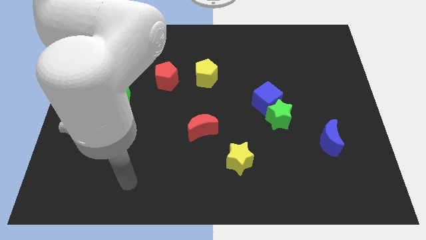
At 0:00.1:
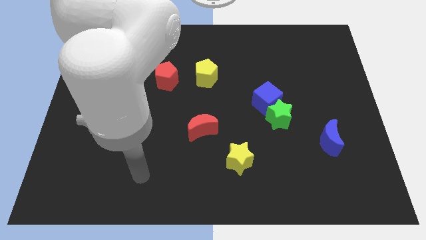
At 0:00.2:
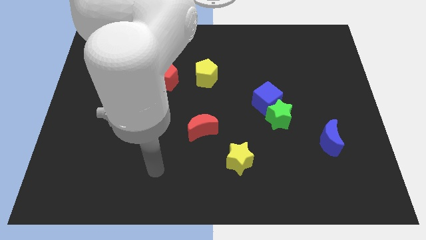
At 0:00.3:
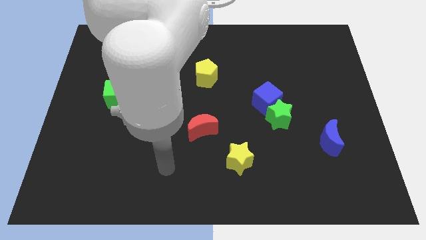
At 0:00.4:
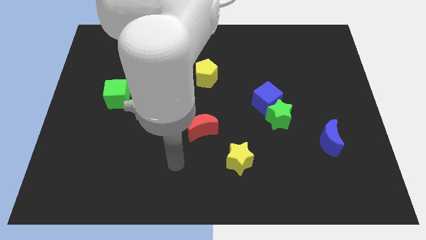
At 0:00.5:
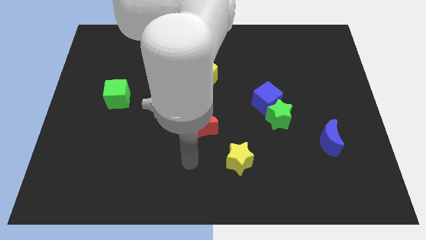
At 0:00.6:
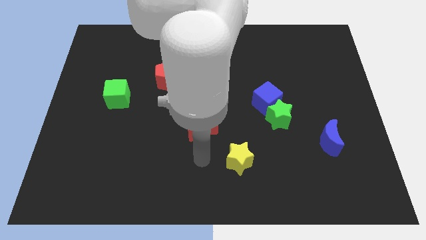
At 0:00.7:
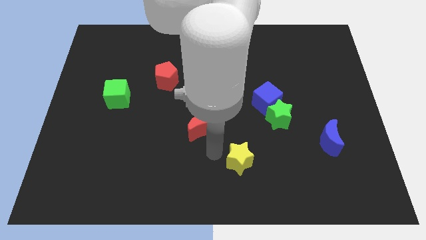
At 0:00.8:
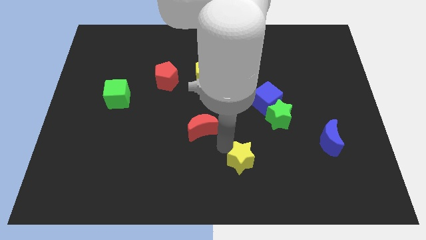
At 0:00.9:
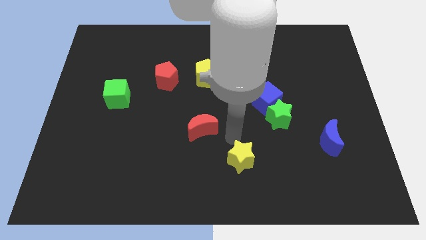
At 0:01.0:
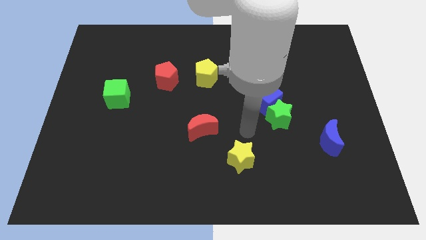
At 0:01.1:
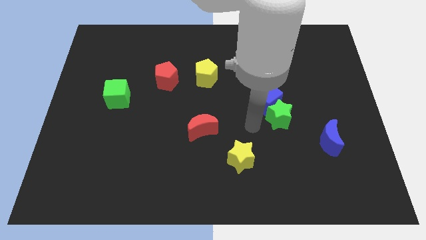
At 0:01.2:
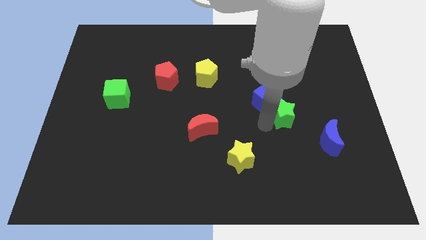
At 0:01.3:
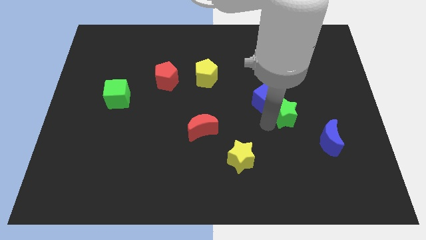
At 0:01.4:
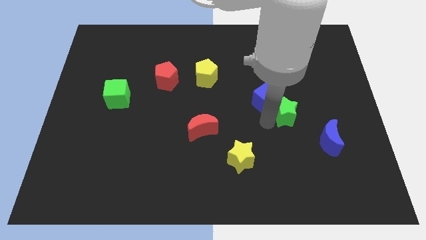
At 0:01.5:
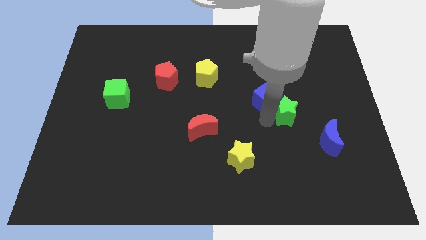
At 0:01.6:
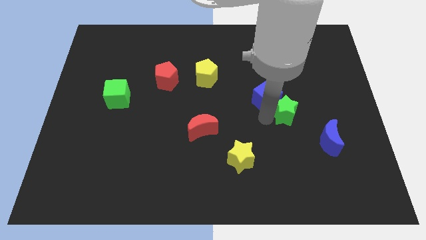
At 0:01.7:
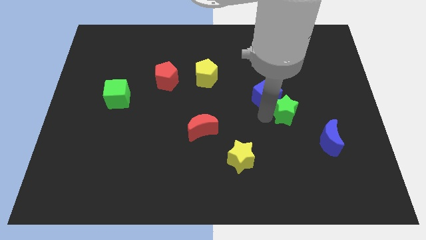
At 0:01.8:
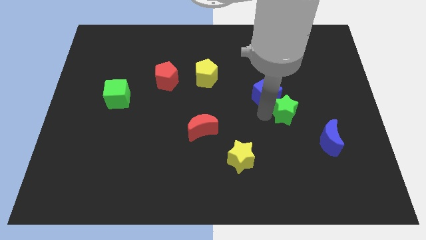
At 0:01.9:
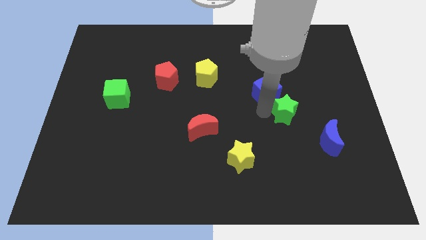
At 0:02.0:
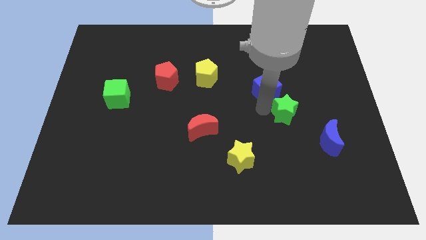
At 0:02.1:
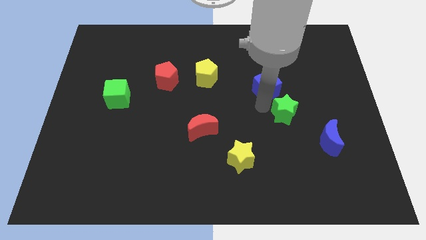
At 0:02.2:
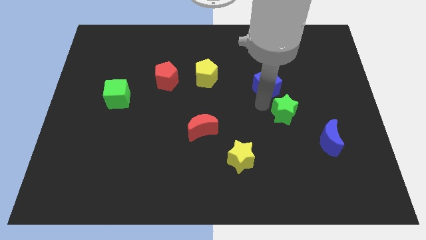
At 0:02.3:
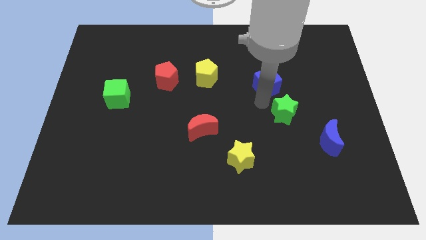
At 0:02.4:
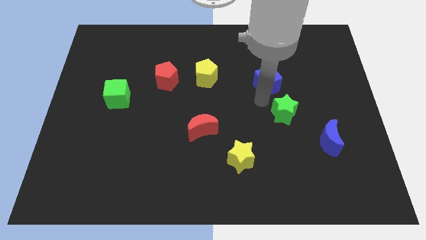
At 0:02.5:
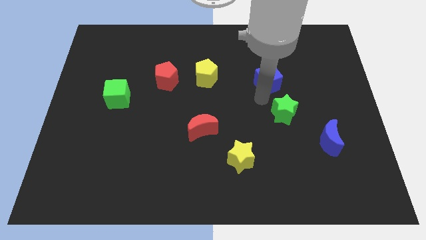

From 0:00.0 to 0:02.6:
pull the blue cube apart from the green star

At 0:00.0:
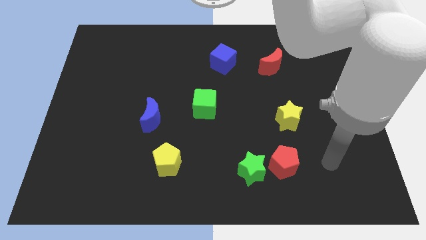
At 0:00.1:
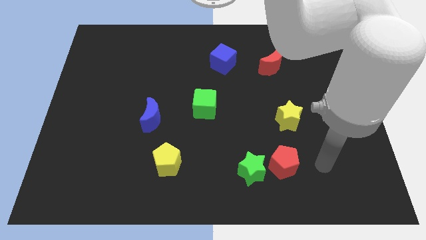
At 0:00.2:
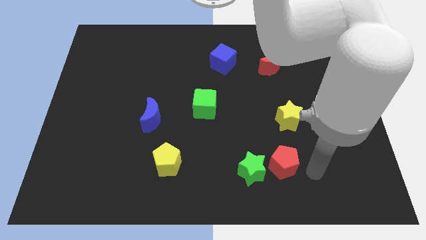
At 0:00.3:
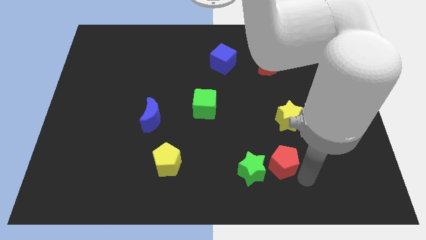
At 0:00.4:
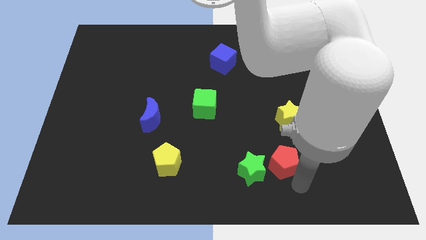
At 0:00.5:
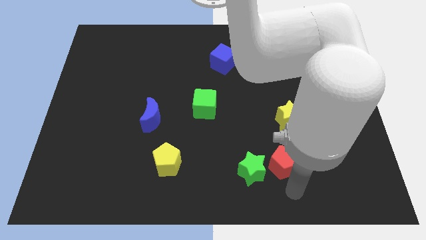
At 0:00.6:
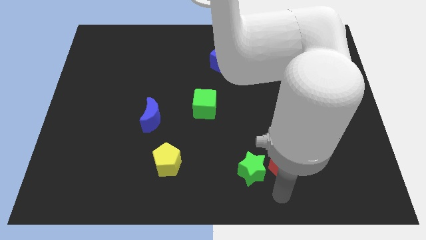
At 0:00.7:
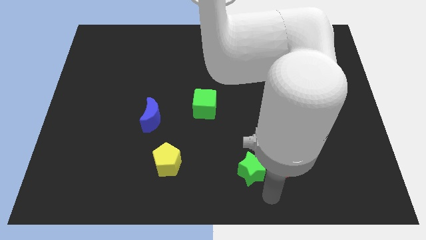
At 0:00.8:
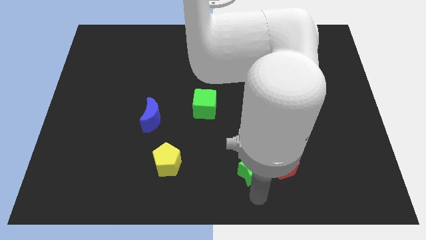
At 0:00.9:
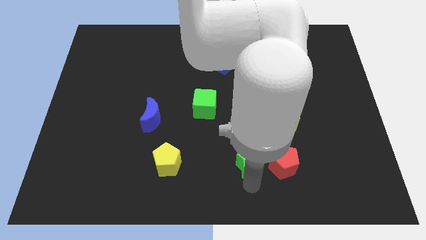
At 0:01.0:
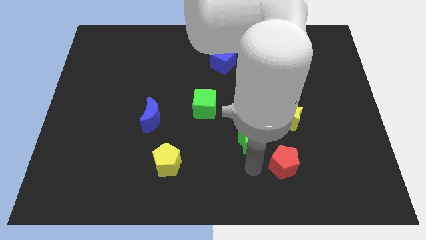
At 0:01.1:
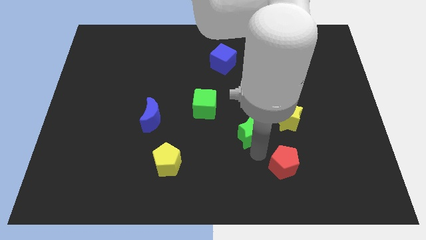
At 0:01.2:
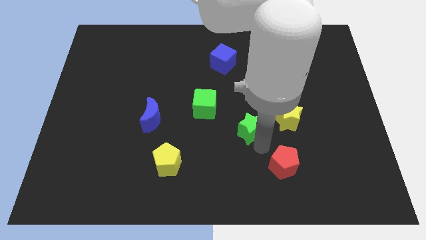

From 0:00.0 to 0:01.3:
move the red pentagon away from the green star

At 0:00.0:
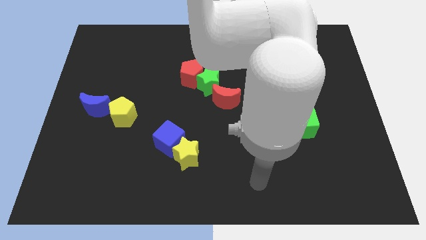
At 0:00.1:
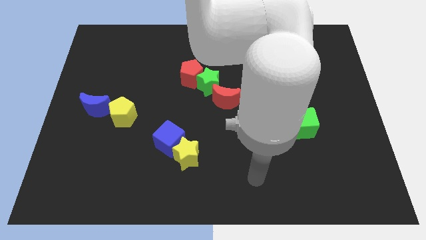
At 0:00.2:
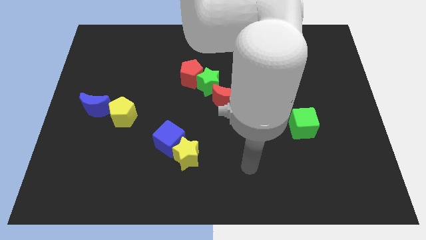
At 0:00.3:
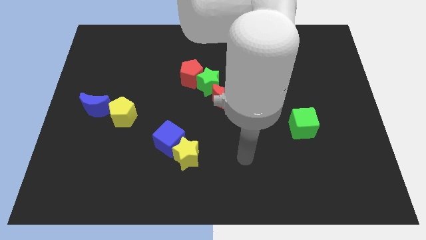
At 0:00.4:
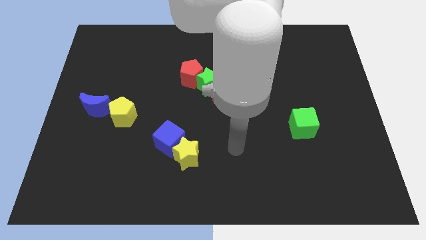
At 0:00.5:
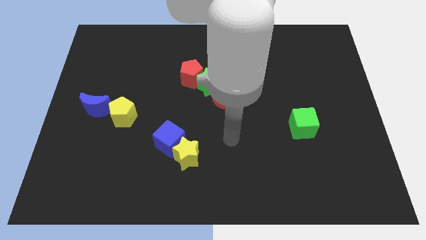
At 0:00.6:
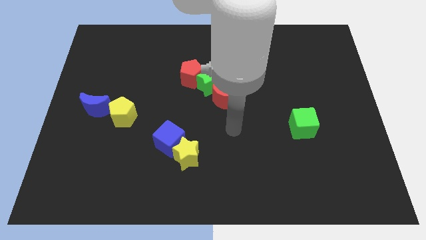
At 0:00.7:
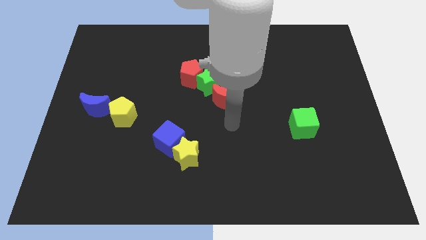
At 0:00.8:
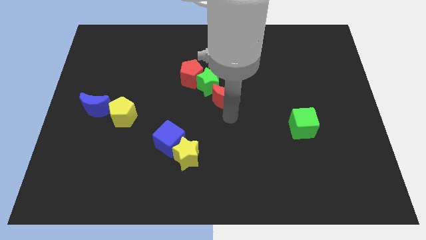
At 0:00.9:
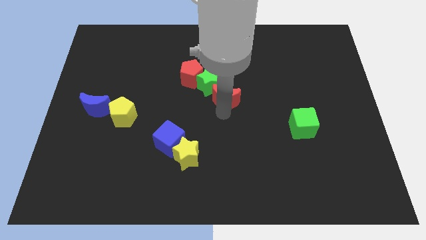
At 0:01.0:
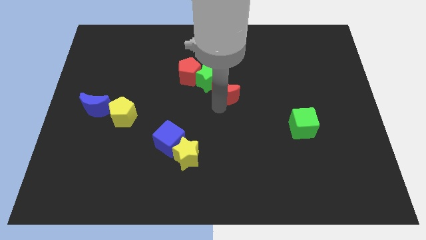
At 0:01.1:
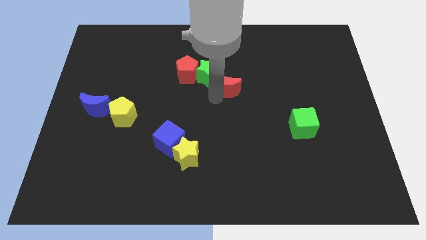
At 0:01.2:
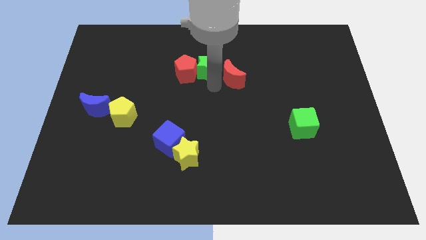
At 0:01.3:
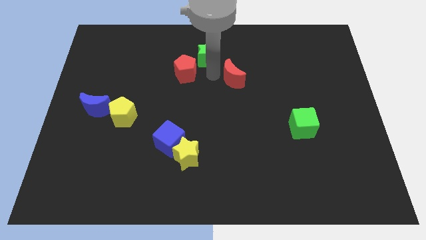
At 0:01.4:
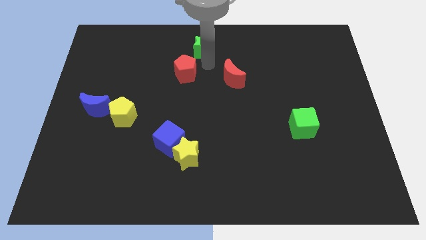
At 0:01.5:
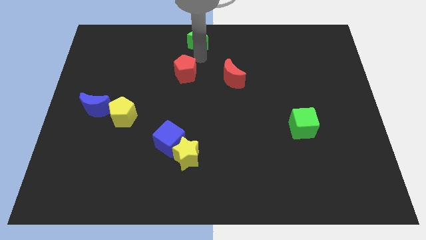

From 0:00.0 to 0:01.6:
pull the red pentagon apart from the green star

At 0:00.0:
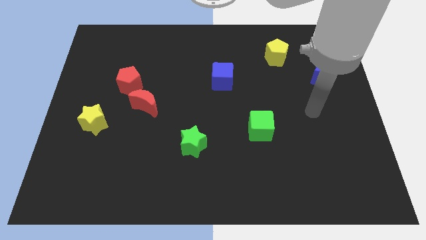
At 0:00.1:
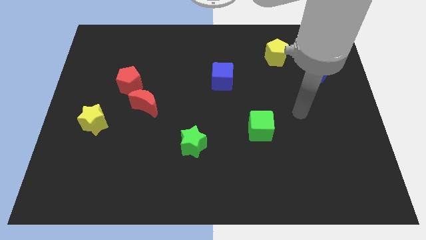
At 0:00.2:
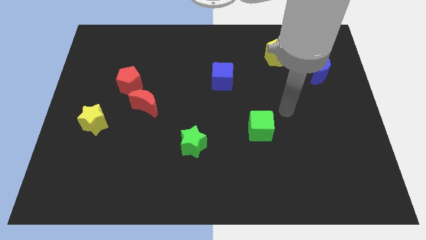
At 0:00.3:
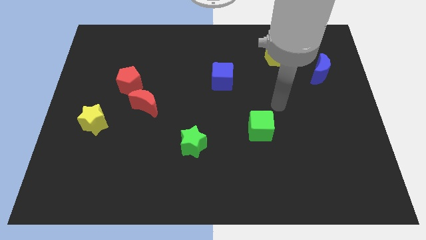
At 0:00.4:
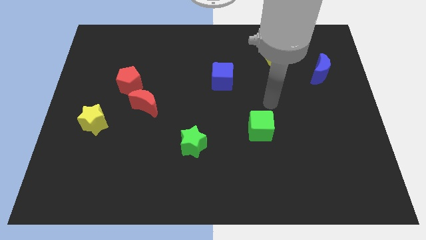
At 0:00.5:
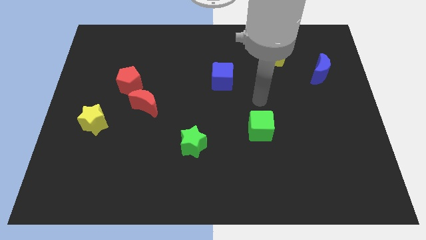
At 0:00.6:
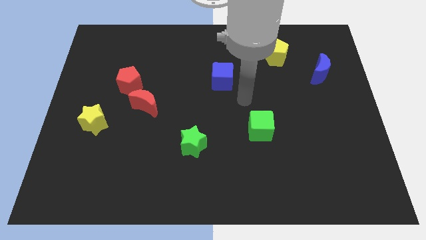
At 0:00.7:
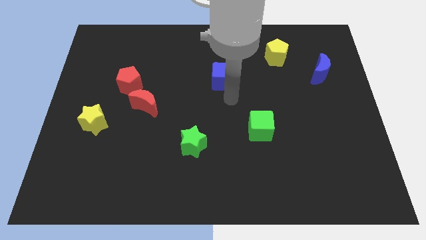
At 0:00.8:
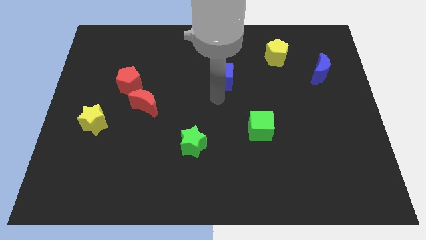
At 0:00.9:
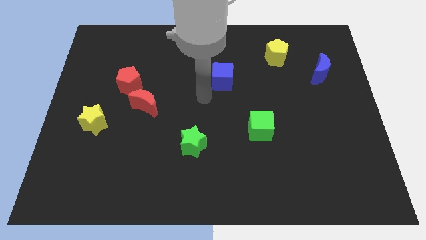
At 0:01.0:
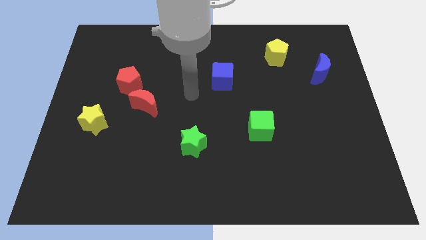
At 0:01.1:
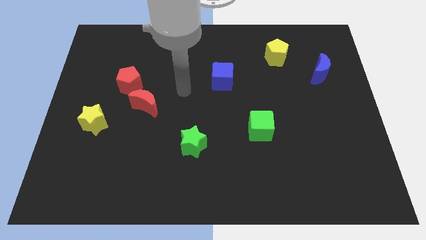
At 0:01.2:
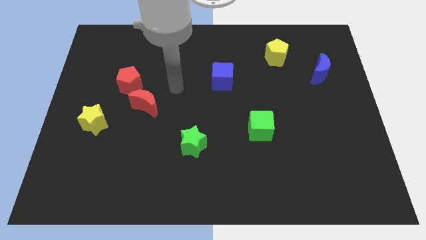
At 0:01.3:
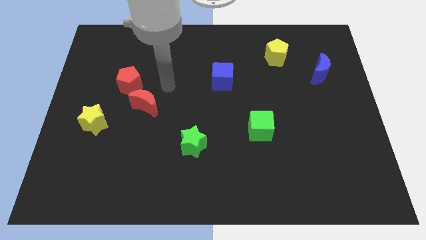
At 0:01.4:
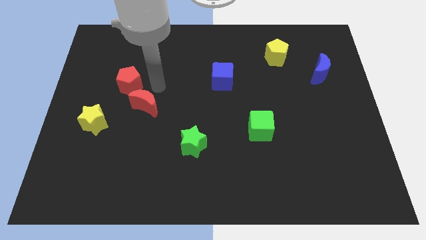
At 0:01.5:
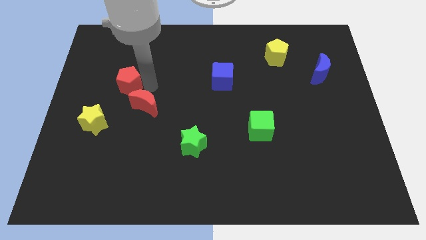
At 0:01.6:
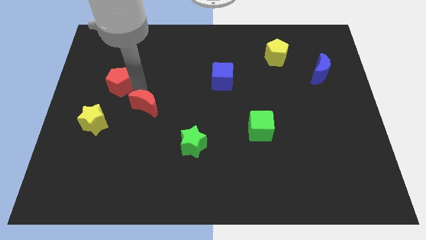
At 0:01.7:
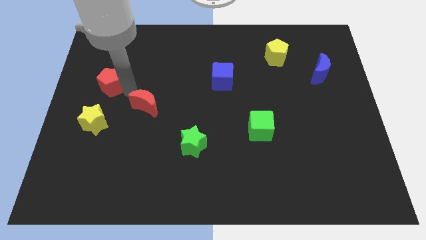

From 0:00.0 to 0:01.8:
pull the red moon apart from the red pentagon

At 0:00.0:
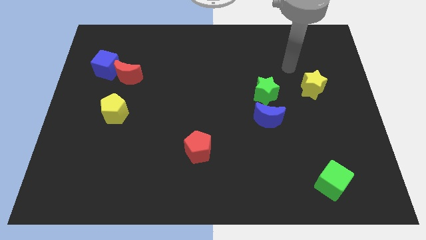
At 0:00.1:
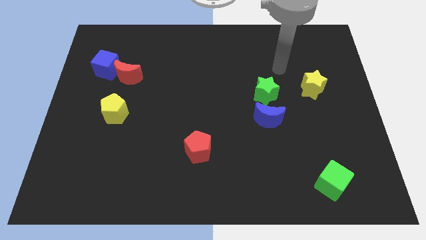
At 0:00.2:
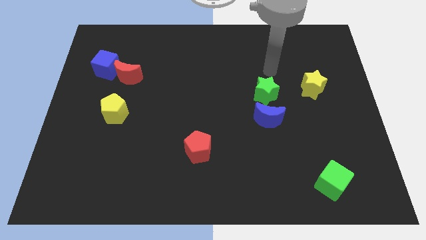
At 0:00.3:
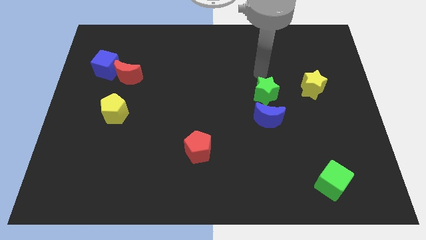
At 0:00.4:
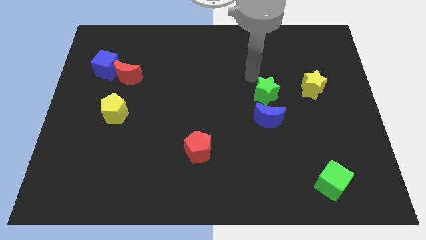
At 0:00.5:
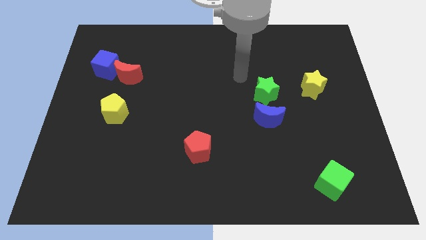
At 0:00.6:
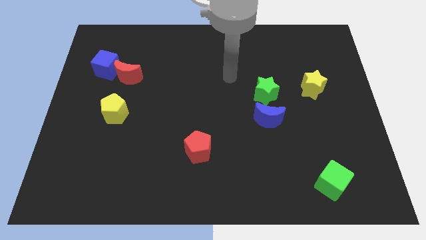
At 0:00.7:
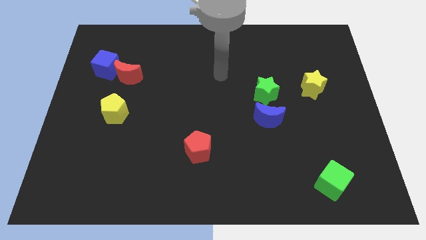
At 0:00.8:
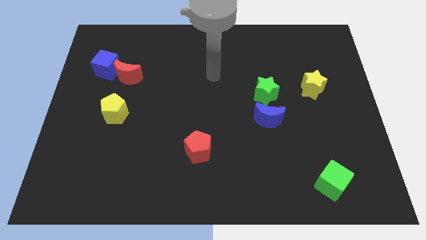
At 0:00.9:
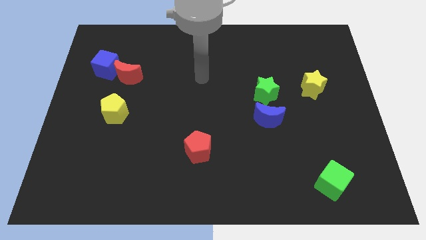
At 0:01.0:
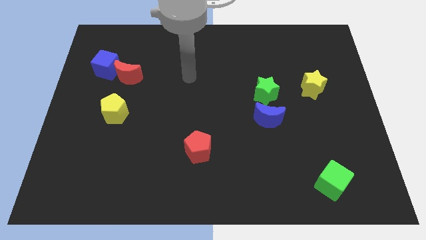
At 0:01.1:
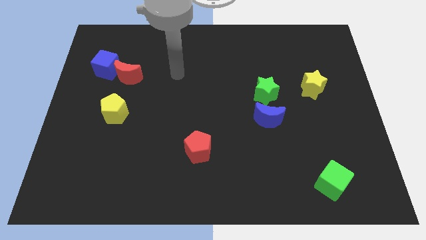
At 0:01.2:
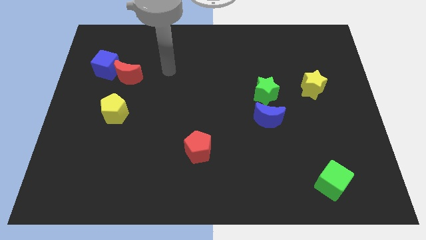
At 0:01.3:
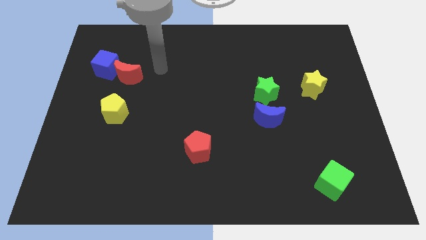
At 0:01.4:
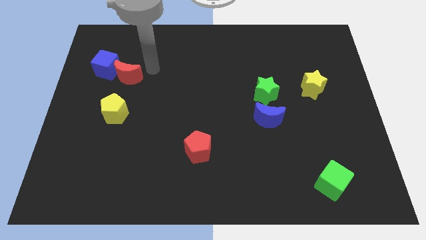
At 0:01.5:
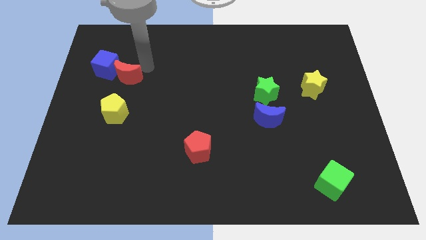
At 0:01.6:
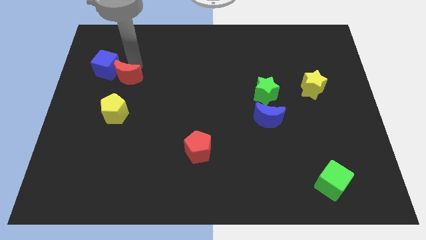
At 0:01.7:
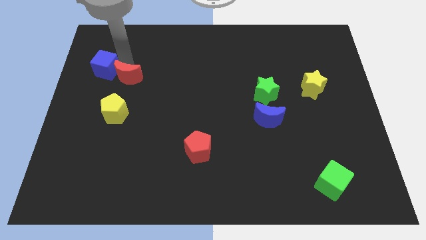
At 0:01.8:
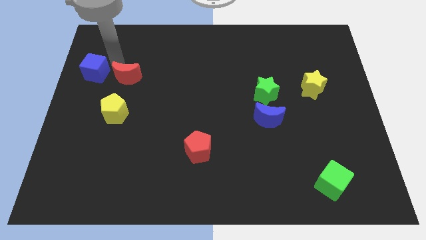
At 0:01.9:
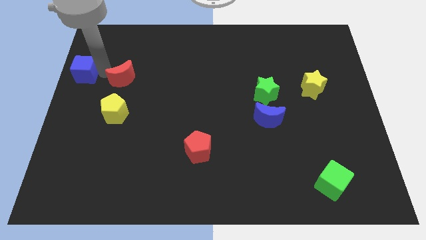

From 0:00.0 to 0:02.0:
separate the red moon from the blue cube
